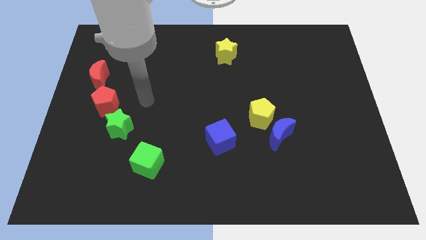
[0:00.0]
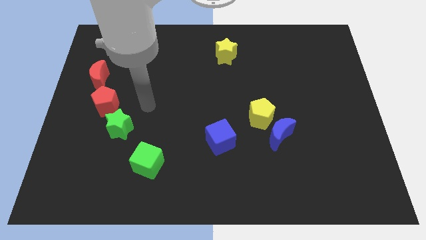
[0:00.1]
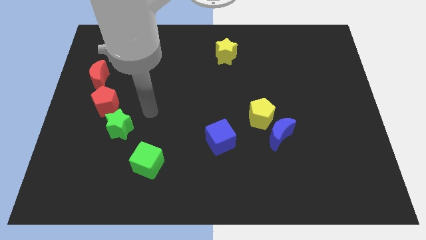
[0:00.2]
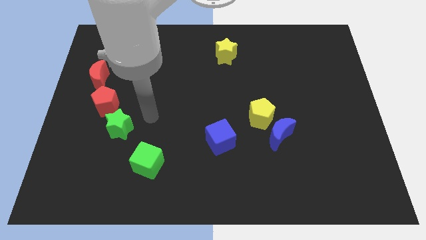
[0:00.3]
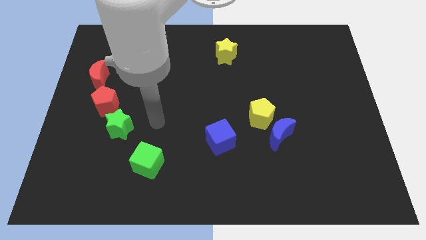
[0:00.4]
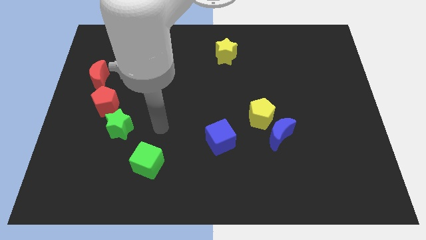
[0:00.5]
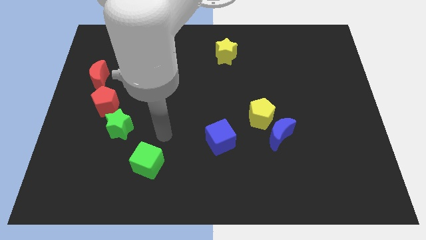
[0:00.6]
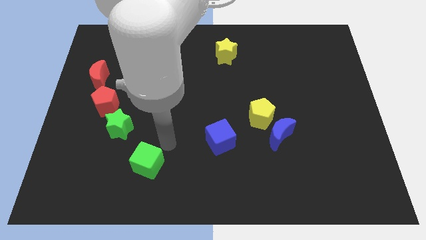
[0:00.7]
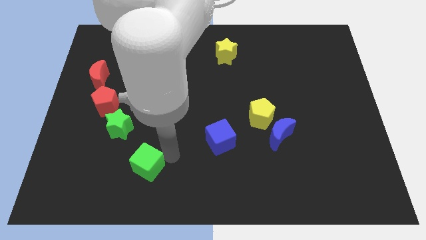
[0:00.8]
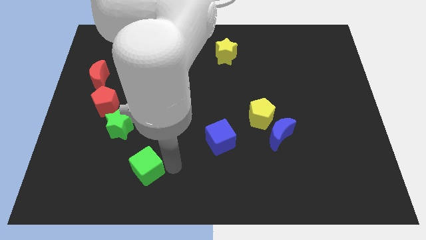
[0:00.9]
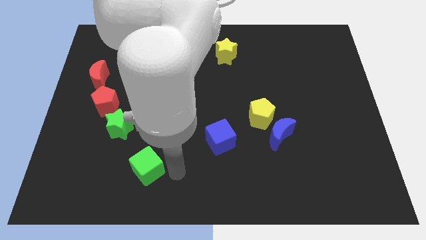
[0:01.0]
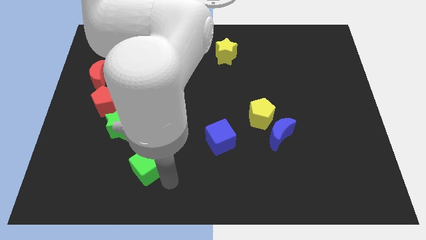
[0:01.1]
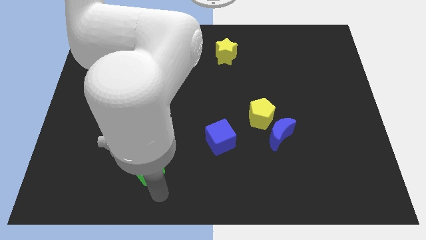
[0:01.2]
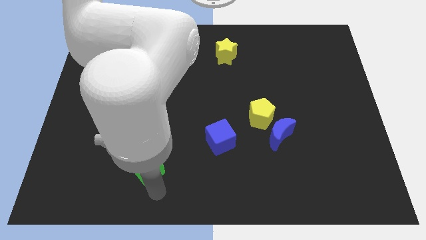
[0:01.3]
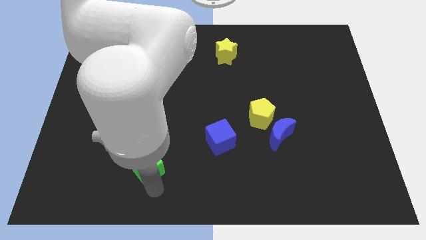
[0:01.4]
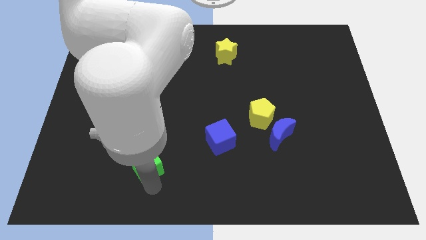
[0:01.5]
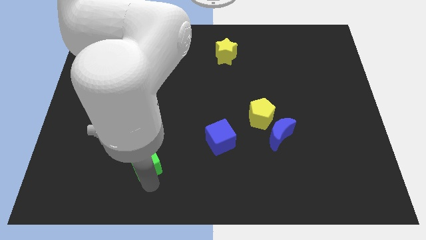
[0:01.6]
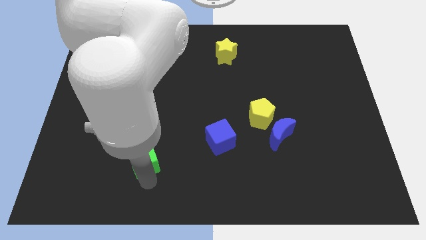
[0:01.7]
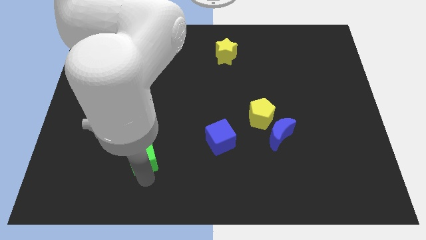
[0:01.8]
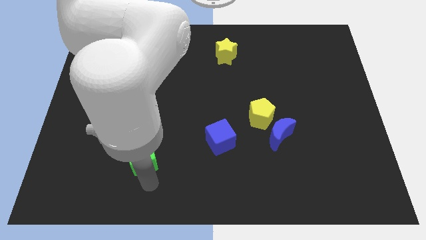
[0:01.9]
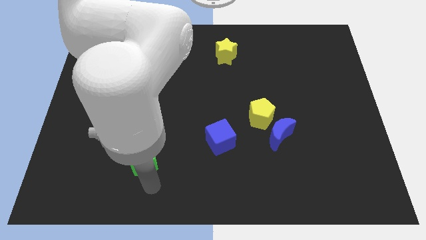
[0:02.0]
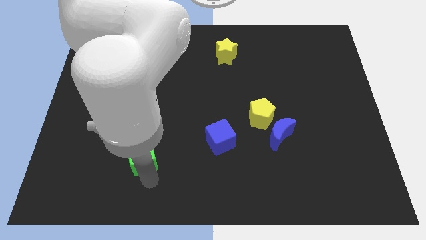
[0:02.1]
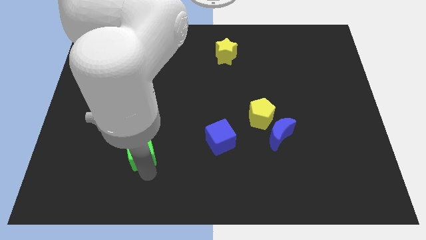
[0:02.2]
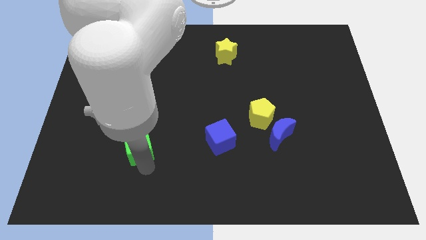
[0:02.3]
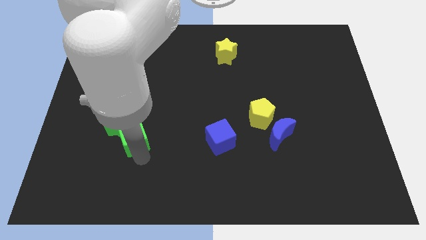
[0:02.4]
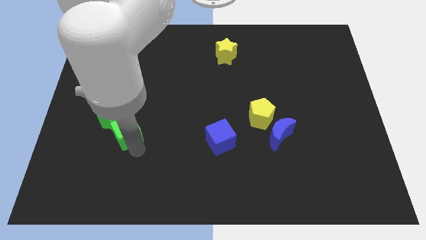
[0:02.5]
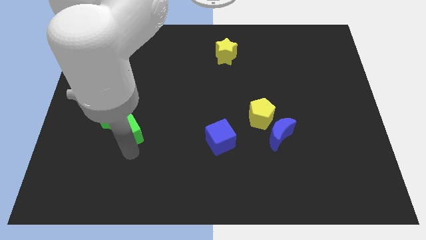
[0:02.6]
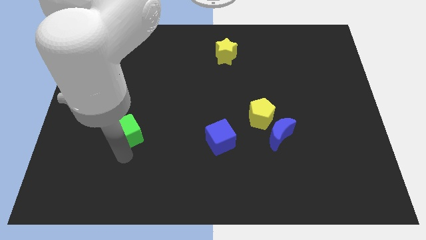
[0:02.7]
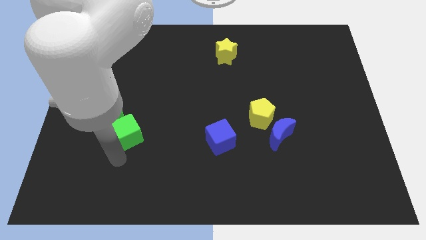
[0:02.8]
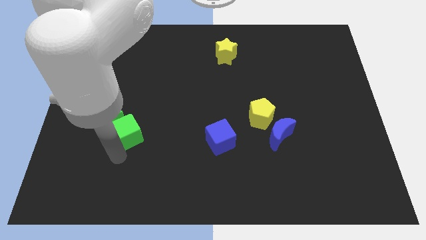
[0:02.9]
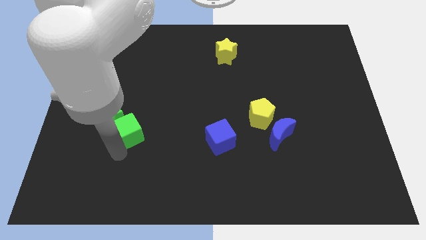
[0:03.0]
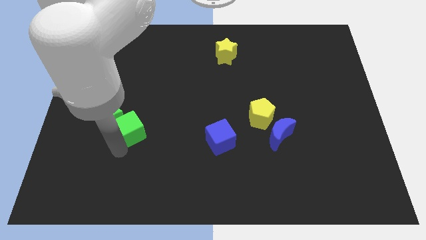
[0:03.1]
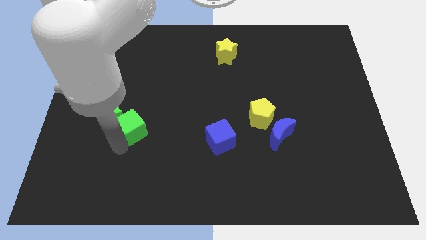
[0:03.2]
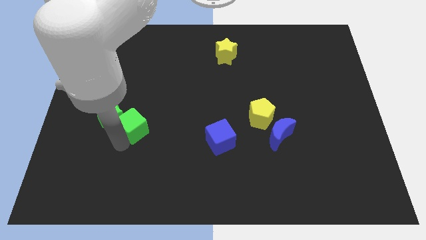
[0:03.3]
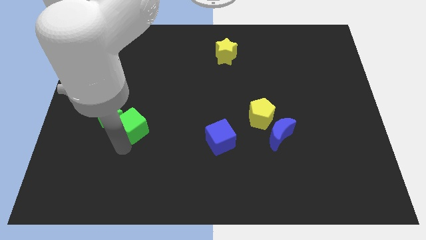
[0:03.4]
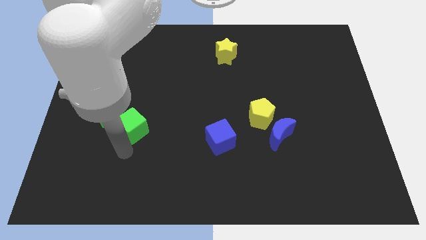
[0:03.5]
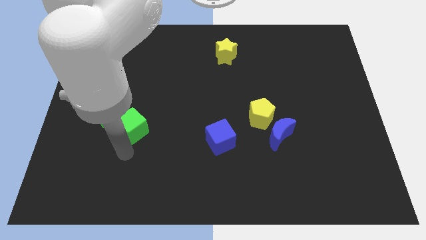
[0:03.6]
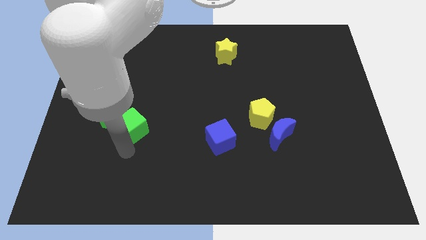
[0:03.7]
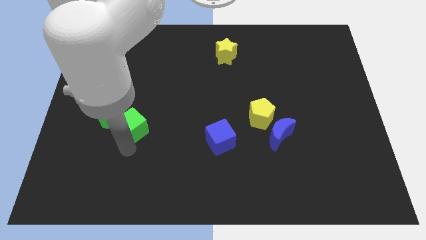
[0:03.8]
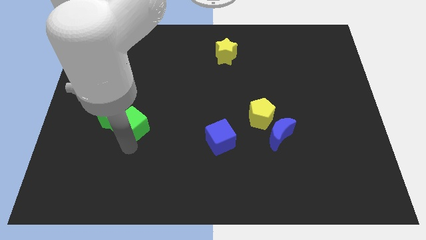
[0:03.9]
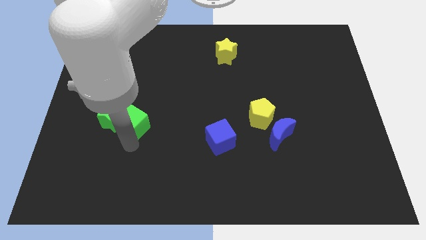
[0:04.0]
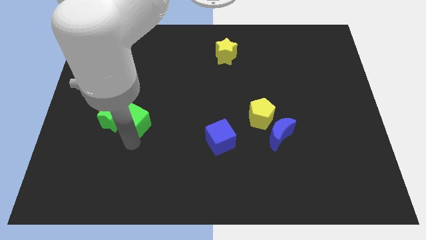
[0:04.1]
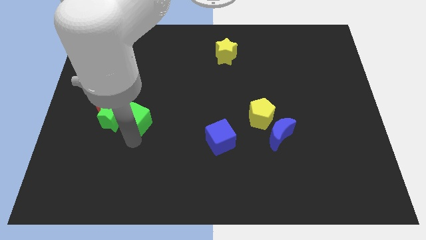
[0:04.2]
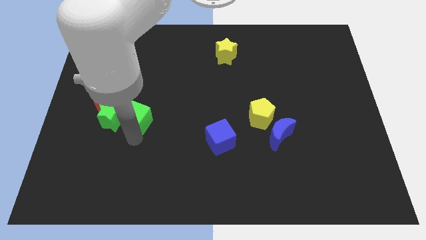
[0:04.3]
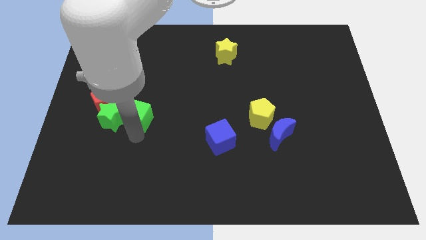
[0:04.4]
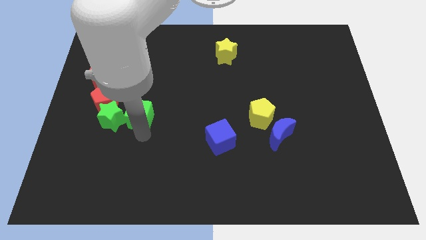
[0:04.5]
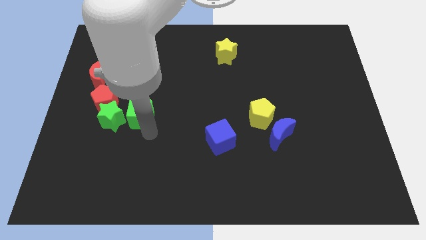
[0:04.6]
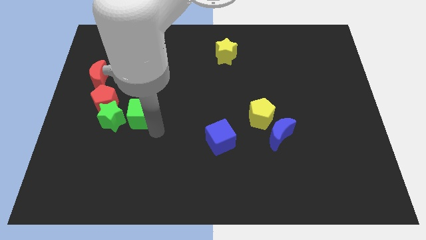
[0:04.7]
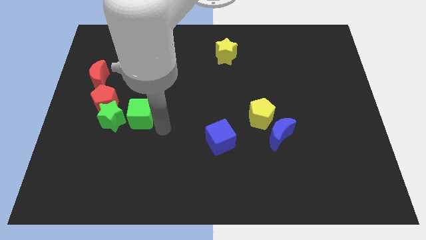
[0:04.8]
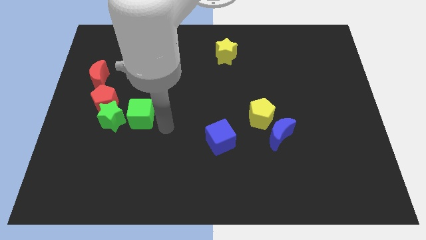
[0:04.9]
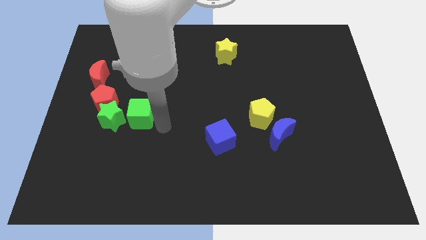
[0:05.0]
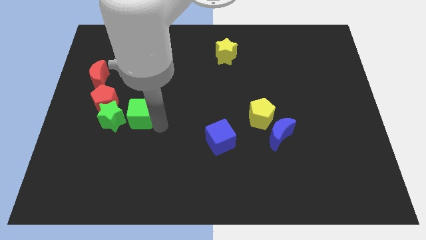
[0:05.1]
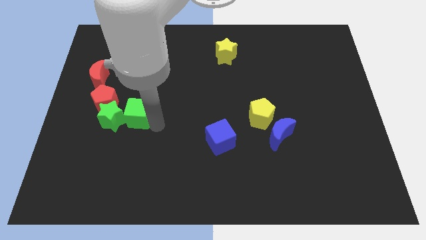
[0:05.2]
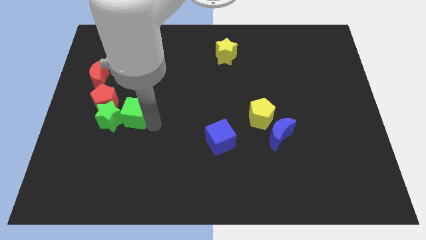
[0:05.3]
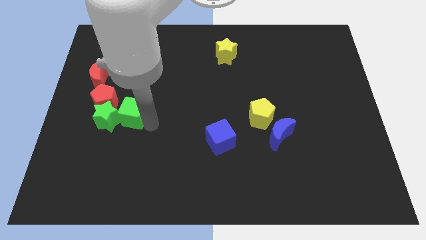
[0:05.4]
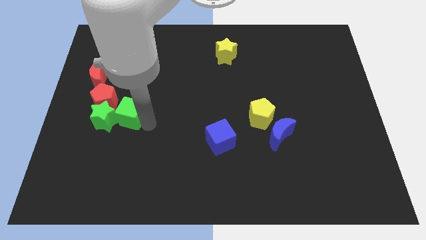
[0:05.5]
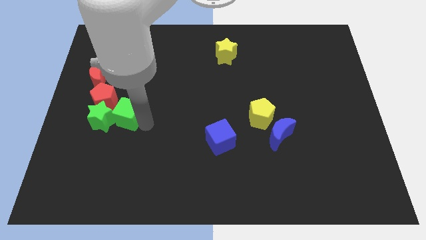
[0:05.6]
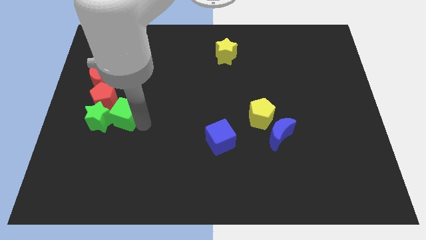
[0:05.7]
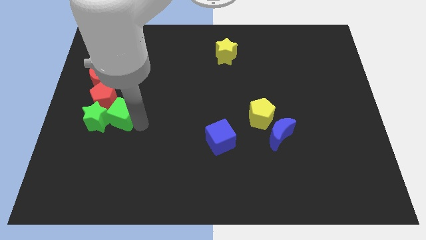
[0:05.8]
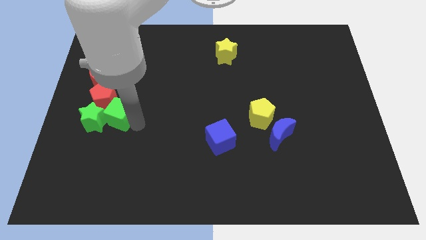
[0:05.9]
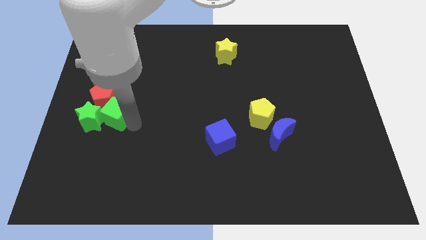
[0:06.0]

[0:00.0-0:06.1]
slide the green cube next to the red pentagon
